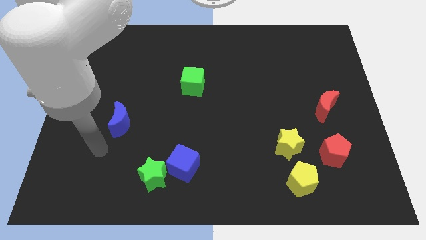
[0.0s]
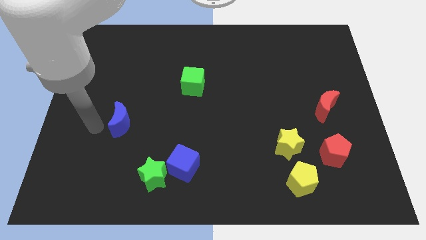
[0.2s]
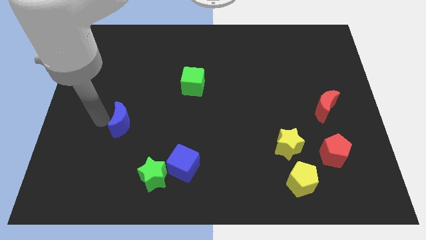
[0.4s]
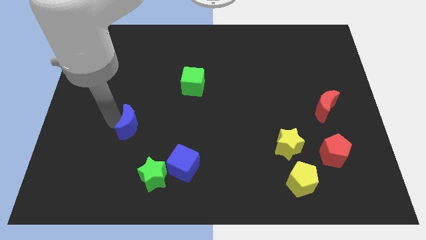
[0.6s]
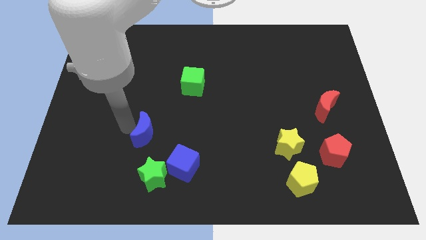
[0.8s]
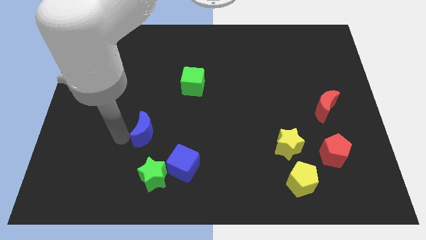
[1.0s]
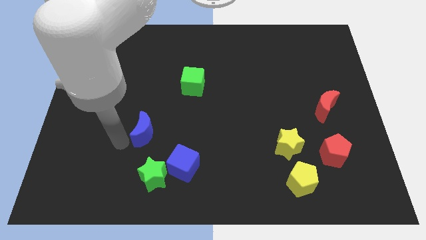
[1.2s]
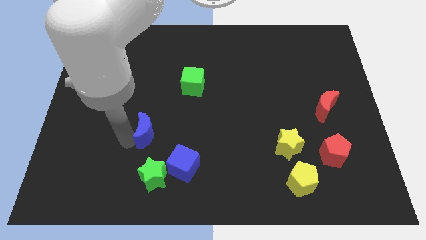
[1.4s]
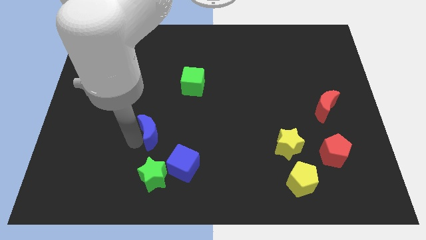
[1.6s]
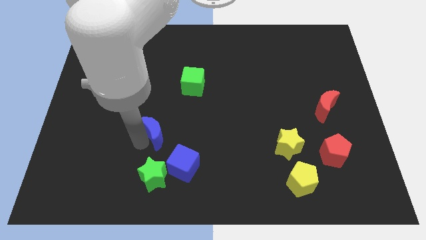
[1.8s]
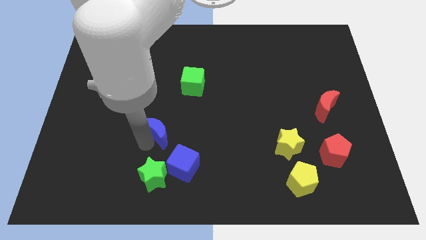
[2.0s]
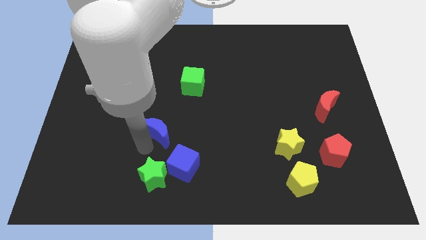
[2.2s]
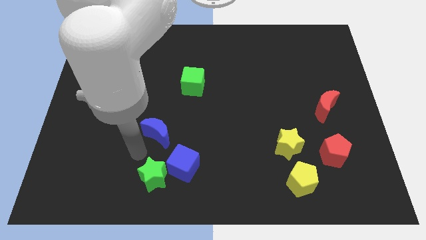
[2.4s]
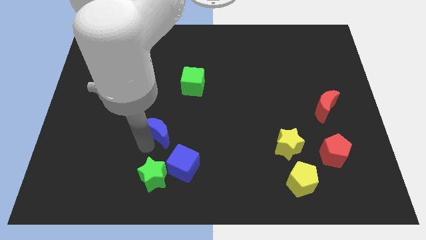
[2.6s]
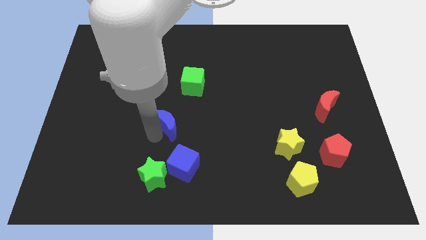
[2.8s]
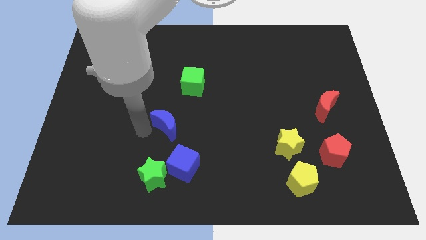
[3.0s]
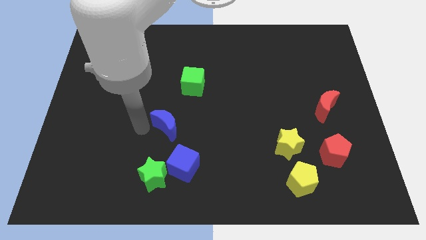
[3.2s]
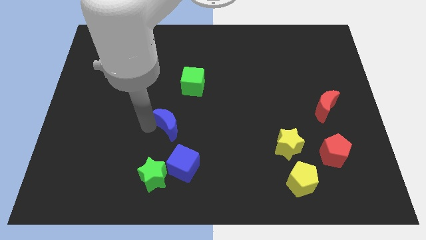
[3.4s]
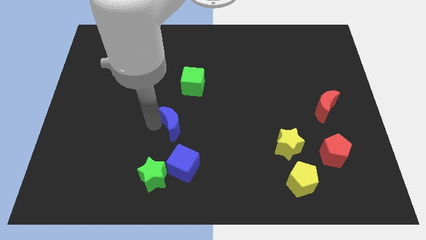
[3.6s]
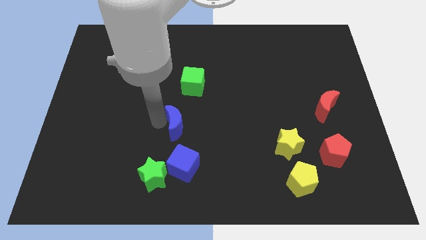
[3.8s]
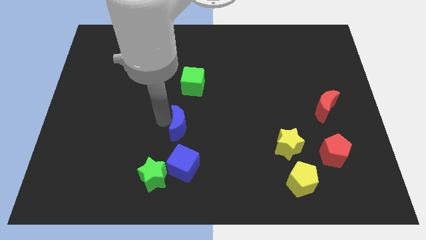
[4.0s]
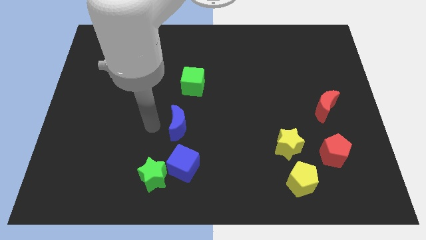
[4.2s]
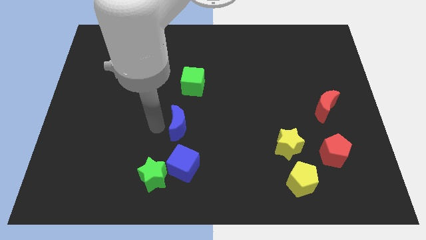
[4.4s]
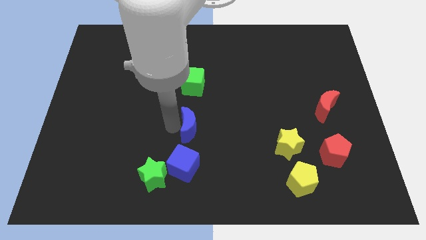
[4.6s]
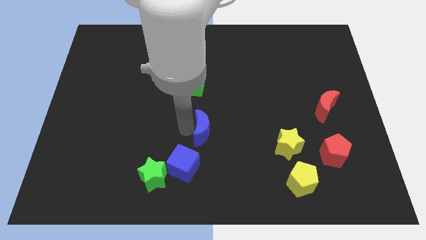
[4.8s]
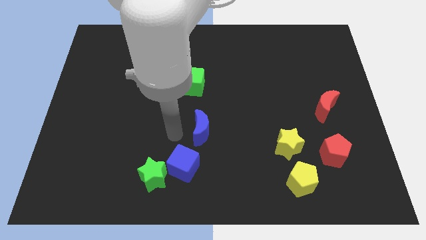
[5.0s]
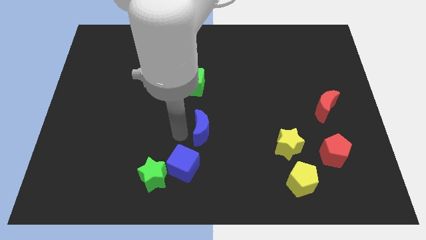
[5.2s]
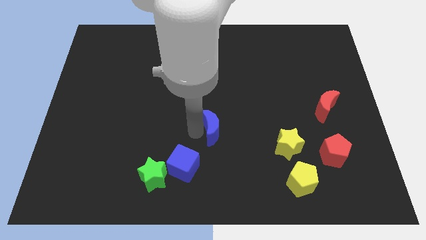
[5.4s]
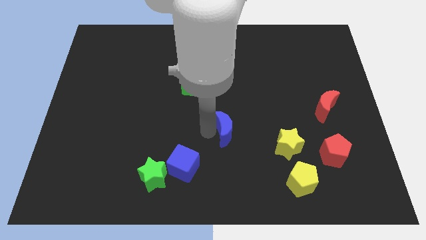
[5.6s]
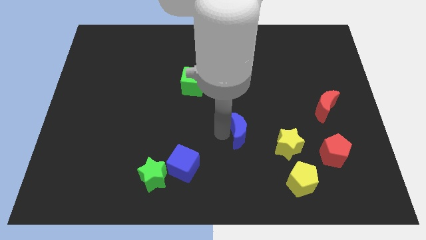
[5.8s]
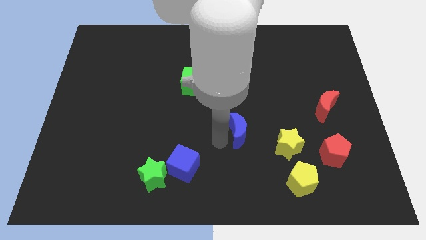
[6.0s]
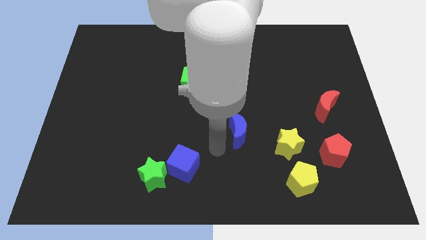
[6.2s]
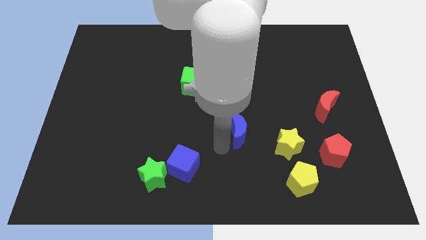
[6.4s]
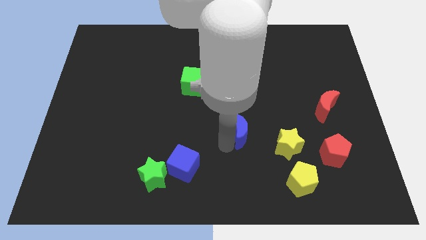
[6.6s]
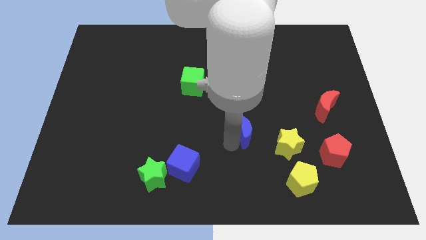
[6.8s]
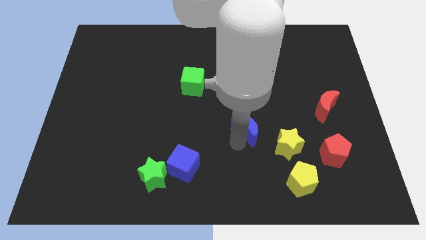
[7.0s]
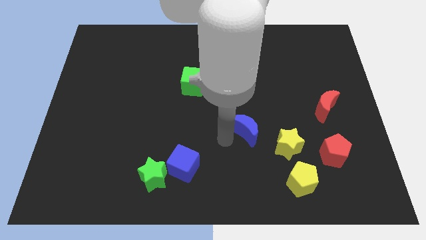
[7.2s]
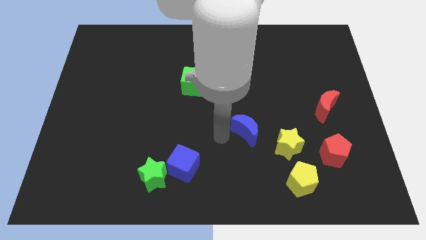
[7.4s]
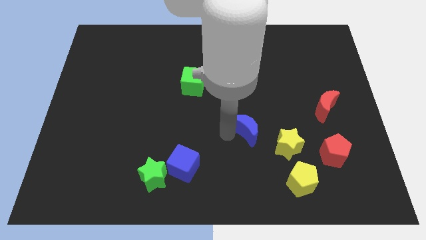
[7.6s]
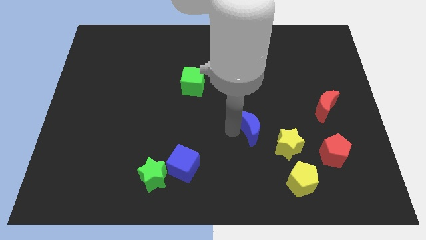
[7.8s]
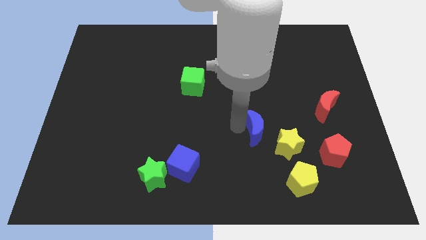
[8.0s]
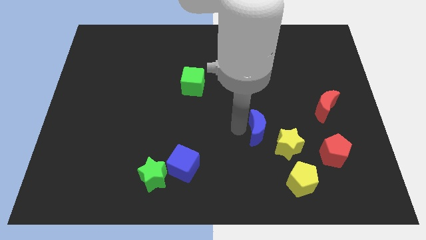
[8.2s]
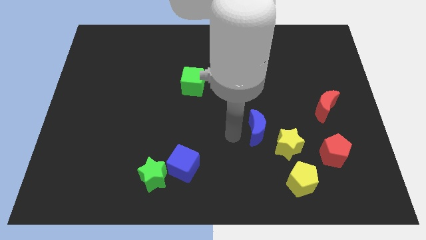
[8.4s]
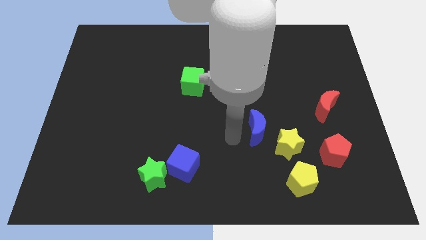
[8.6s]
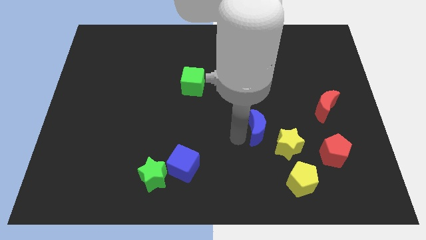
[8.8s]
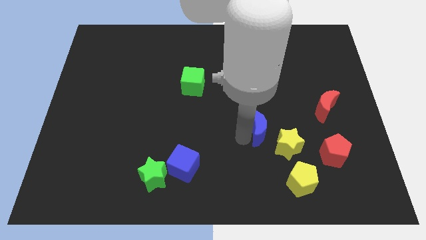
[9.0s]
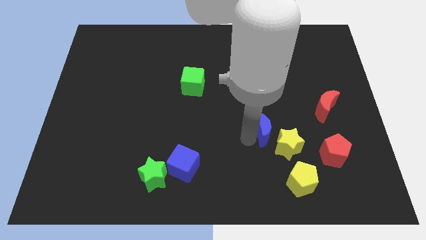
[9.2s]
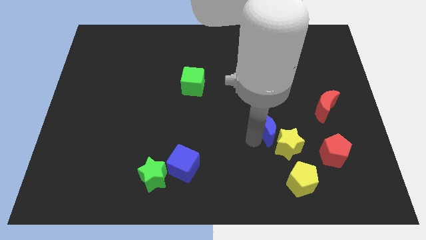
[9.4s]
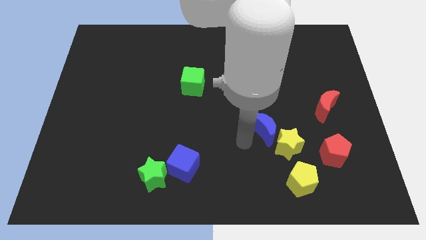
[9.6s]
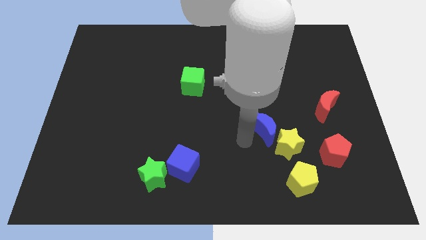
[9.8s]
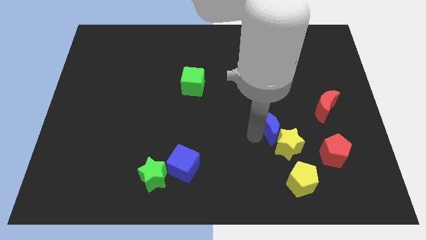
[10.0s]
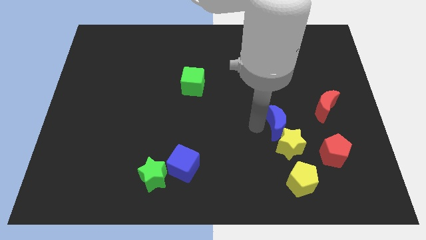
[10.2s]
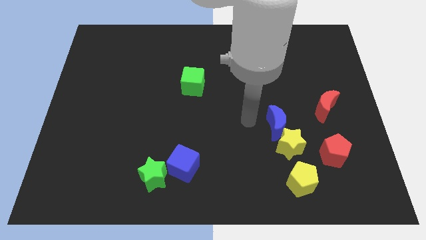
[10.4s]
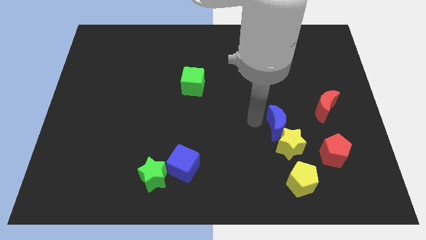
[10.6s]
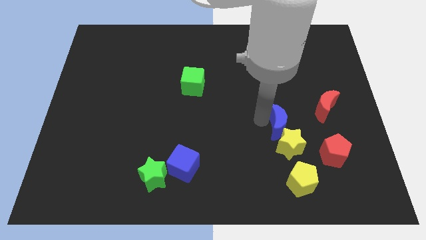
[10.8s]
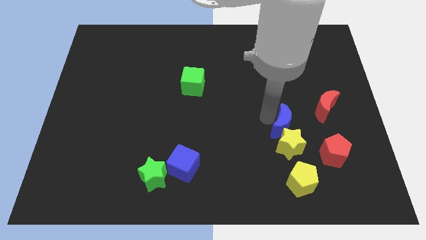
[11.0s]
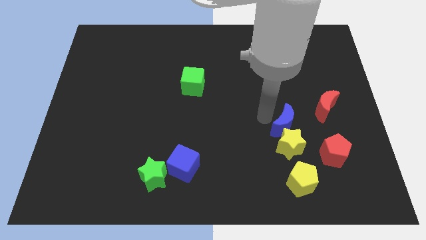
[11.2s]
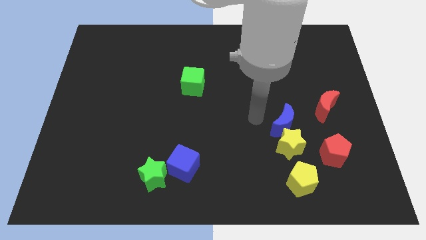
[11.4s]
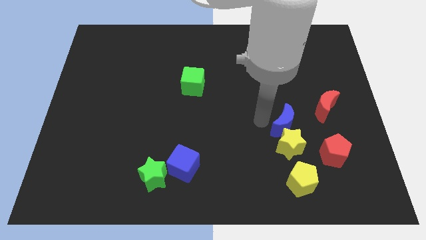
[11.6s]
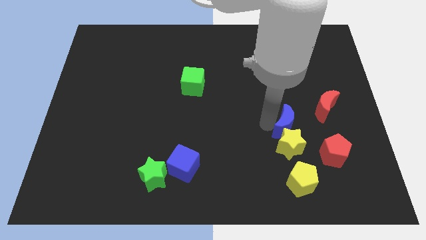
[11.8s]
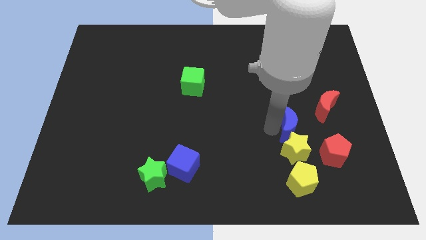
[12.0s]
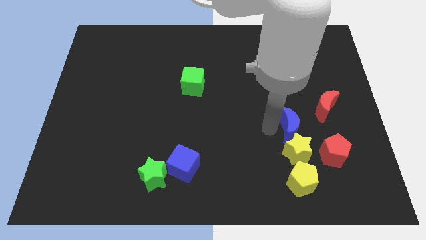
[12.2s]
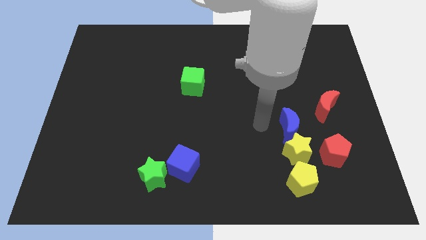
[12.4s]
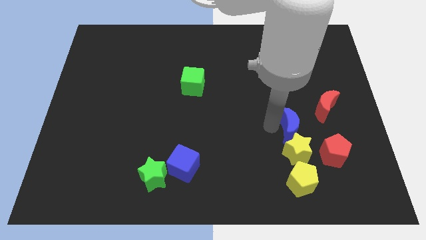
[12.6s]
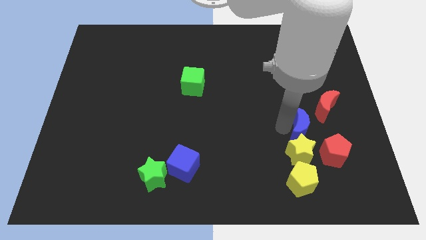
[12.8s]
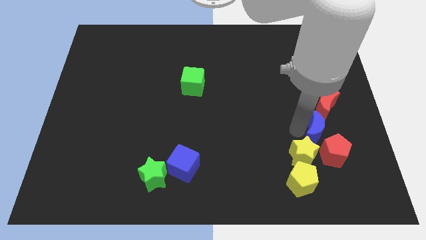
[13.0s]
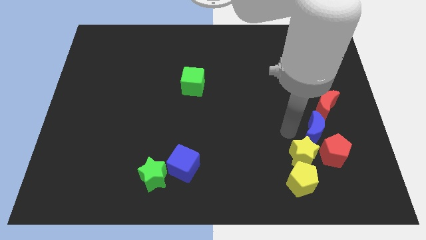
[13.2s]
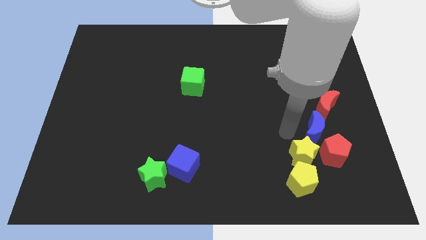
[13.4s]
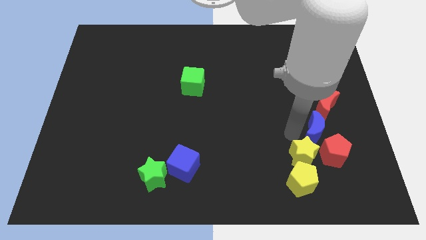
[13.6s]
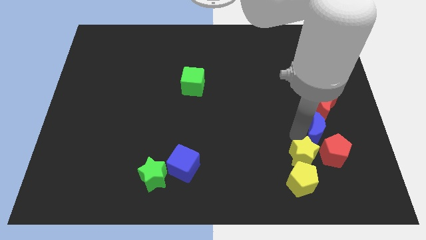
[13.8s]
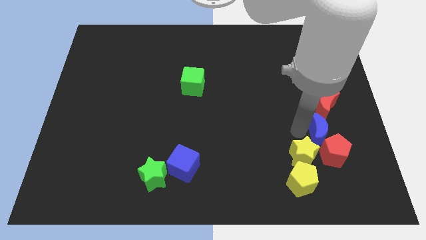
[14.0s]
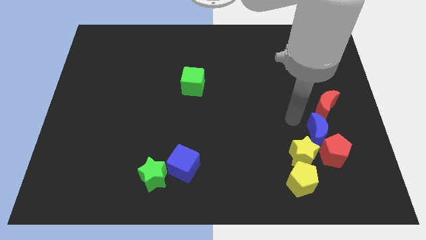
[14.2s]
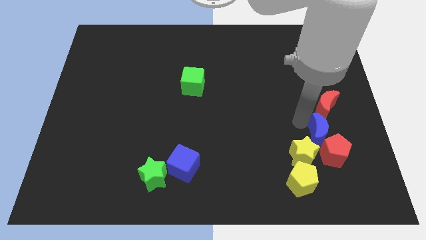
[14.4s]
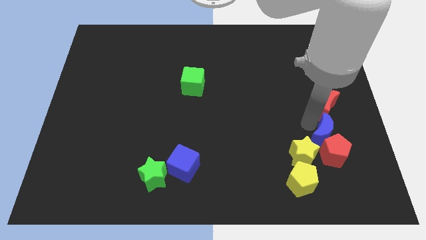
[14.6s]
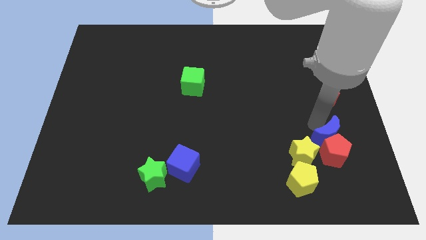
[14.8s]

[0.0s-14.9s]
push the blue moon right of the yellow star
